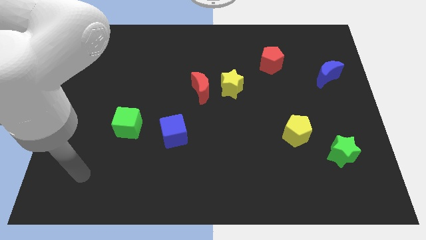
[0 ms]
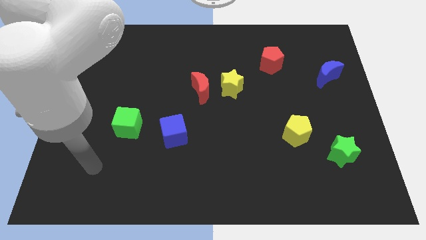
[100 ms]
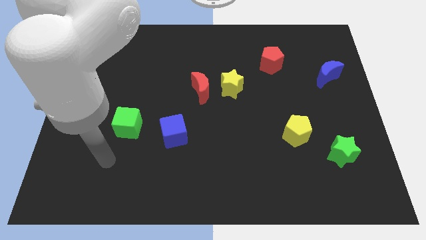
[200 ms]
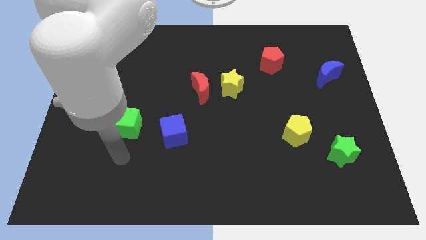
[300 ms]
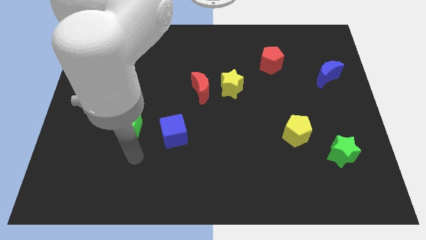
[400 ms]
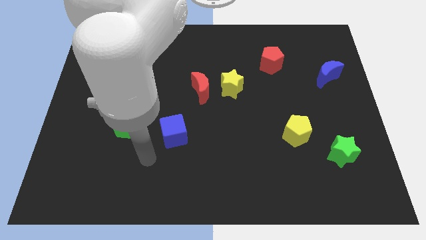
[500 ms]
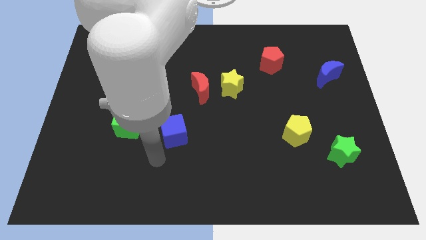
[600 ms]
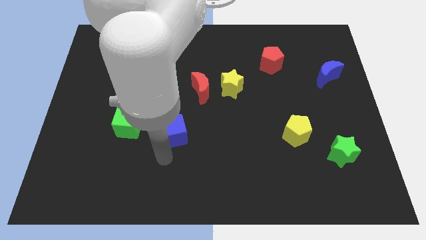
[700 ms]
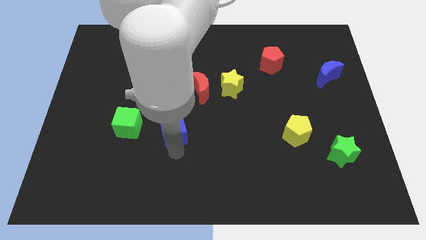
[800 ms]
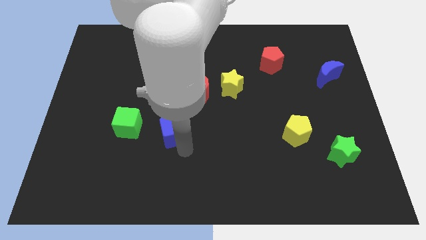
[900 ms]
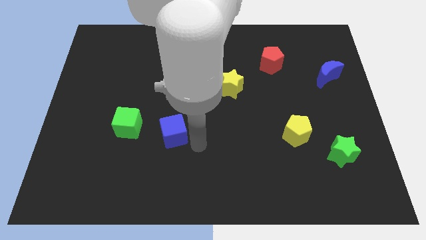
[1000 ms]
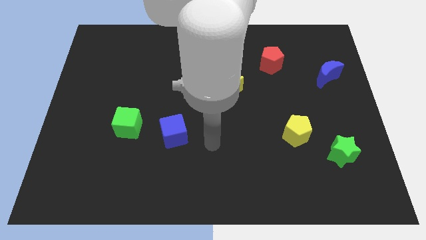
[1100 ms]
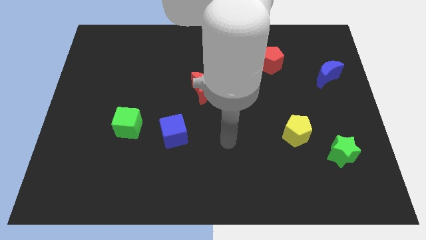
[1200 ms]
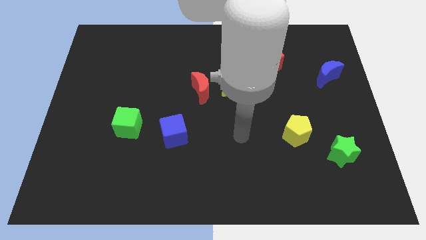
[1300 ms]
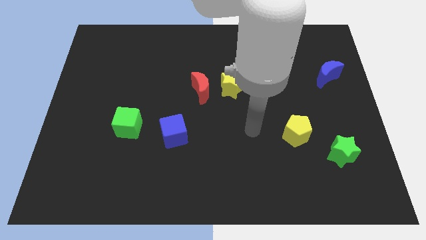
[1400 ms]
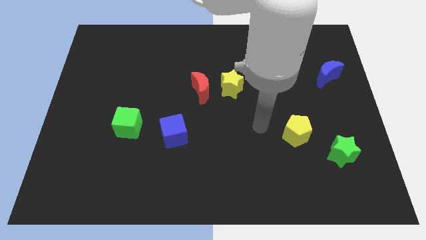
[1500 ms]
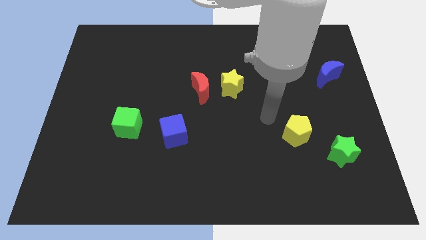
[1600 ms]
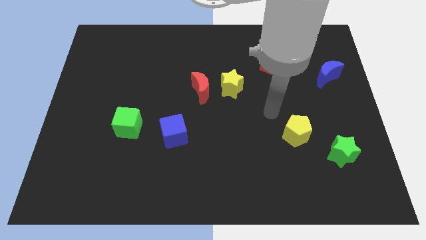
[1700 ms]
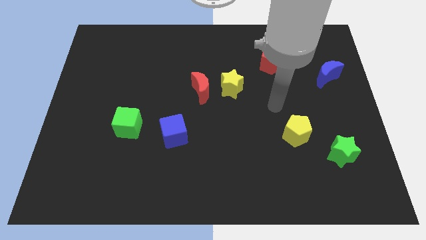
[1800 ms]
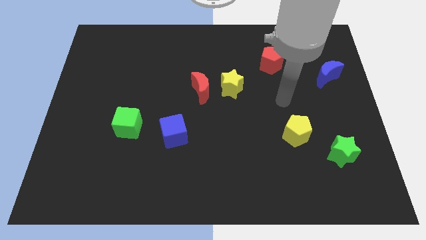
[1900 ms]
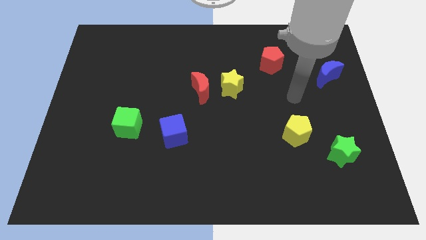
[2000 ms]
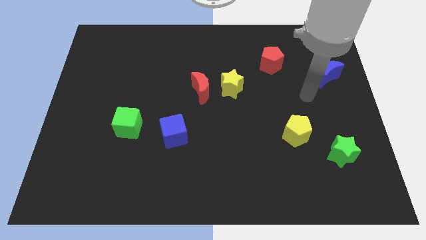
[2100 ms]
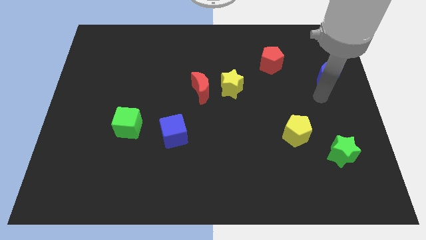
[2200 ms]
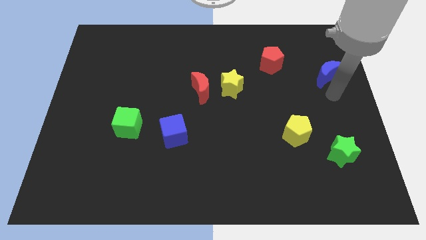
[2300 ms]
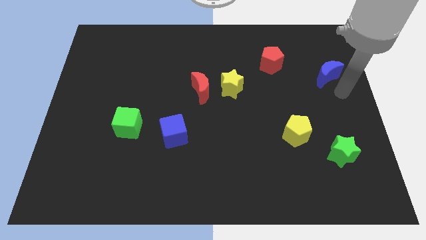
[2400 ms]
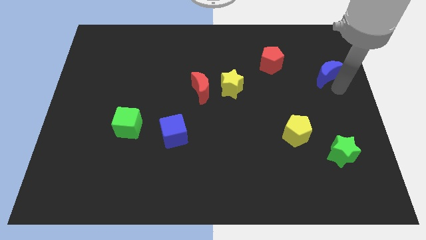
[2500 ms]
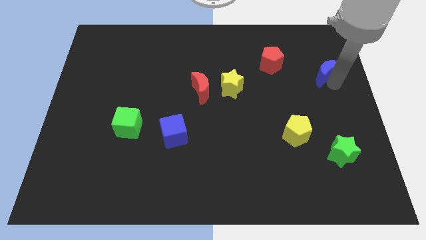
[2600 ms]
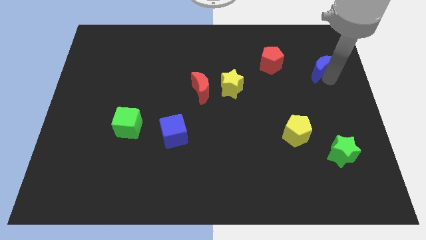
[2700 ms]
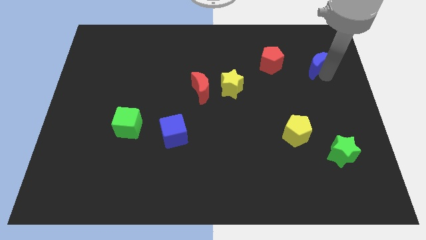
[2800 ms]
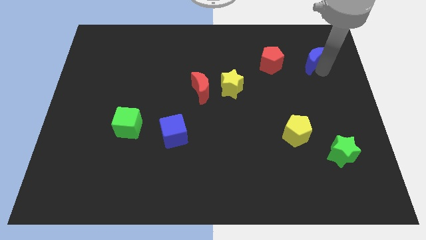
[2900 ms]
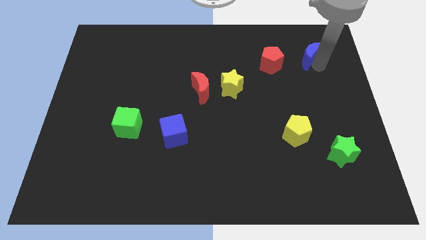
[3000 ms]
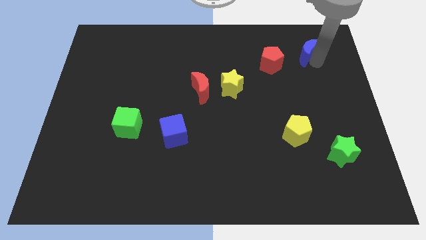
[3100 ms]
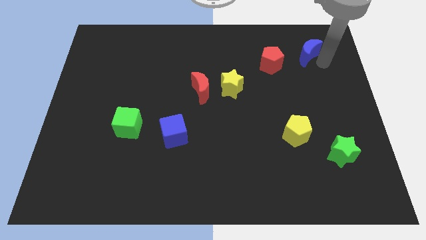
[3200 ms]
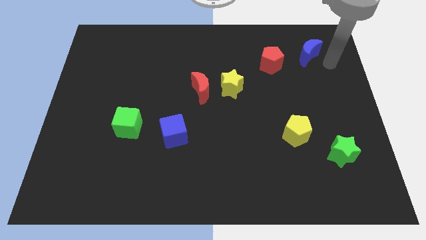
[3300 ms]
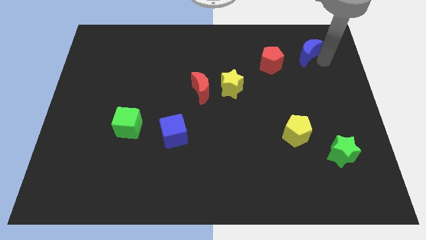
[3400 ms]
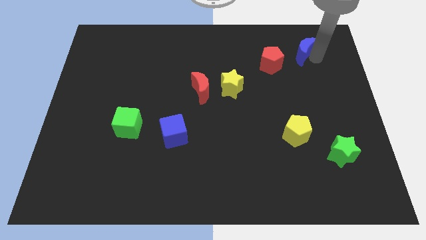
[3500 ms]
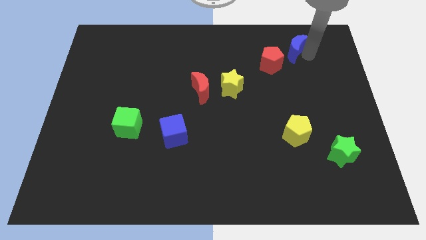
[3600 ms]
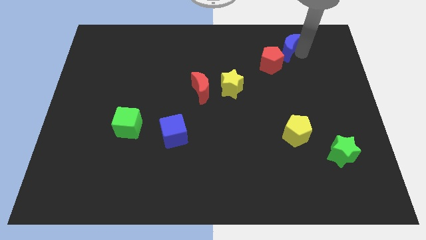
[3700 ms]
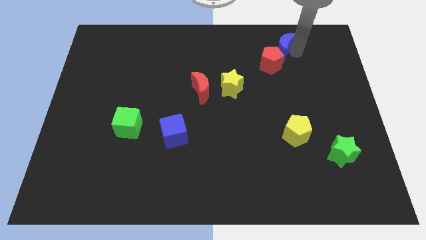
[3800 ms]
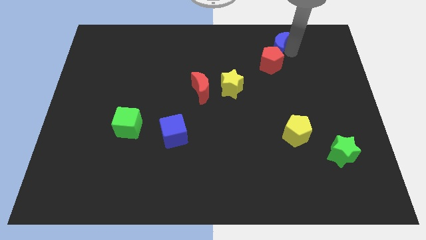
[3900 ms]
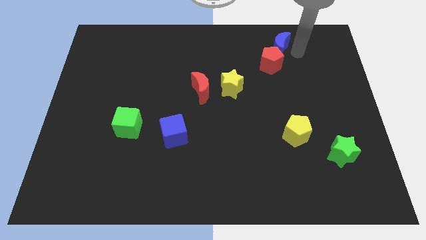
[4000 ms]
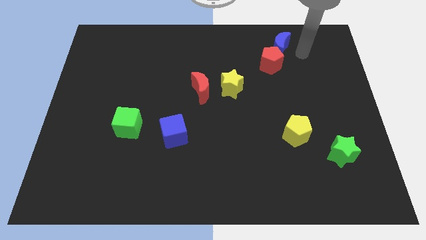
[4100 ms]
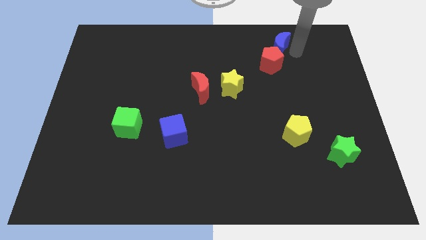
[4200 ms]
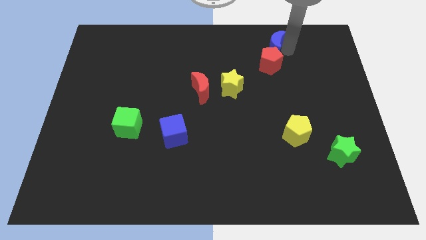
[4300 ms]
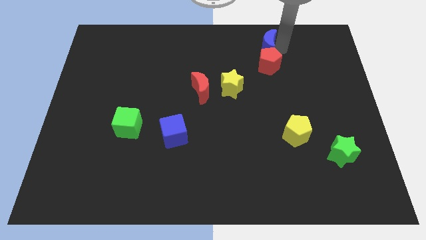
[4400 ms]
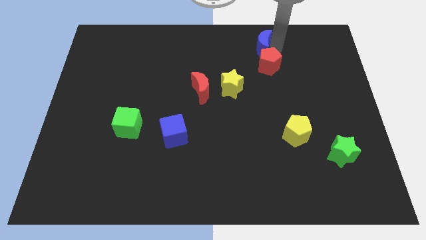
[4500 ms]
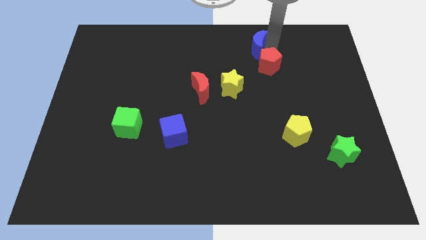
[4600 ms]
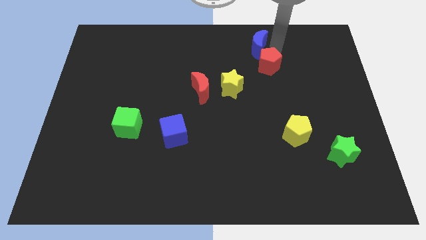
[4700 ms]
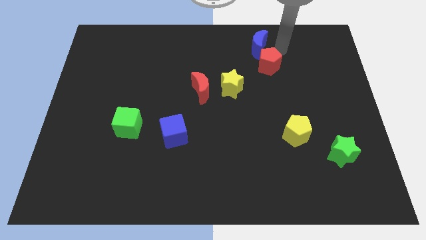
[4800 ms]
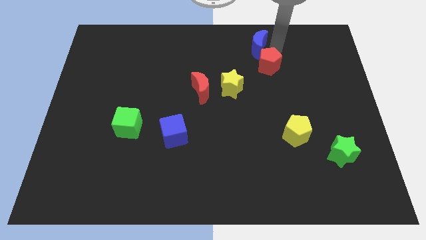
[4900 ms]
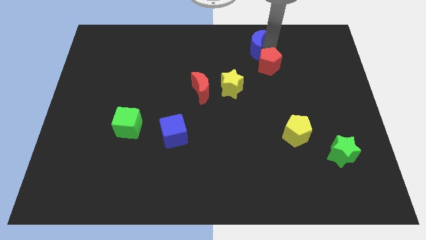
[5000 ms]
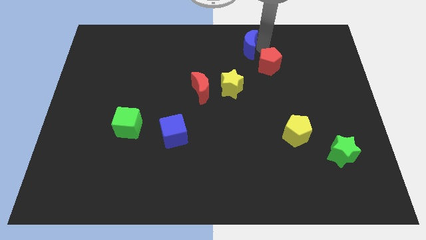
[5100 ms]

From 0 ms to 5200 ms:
put the blue moon to the top

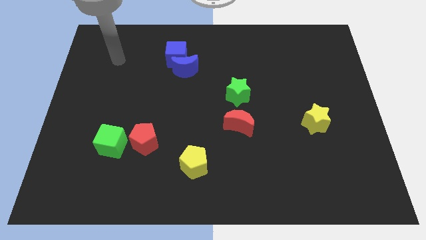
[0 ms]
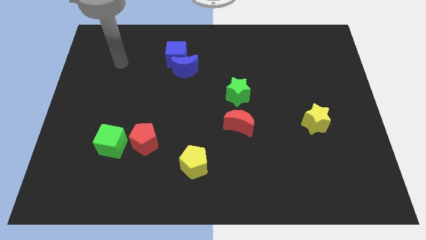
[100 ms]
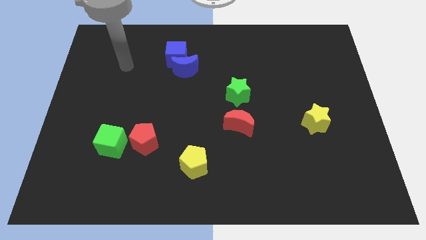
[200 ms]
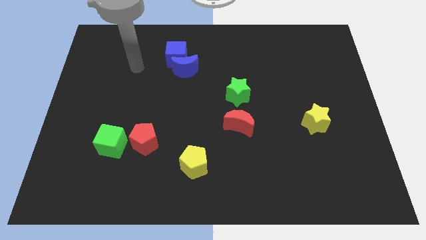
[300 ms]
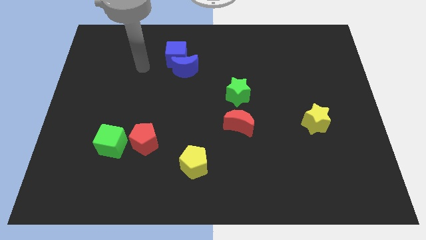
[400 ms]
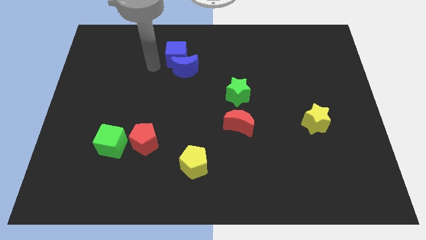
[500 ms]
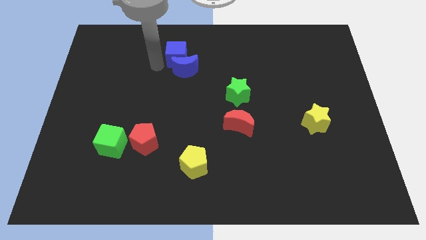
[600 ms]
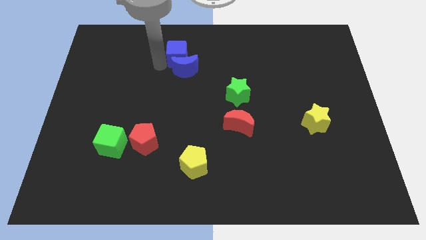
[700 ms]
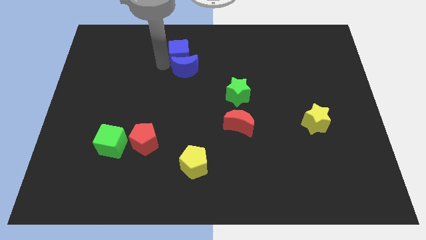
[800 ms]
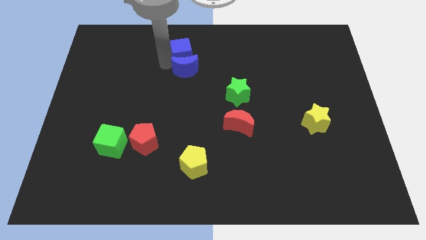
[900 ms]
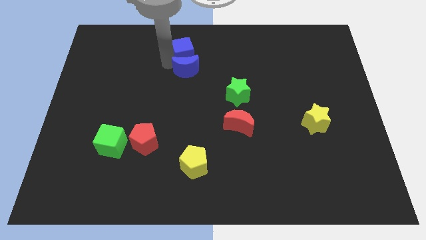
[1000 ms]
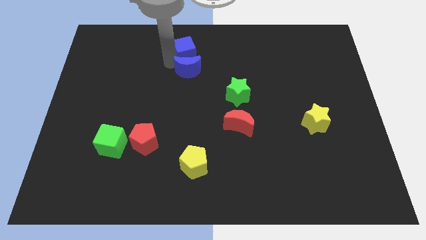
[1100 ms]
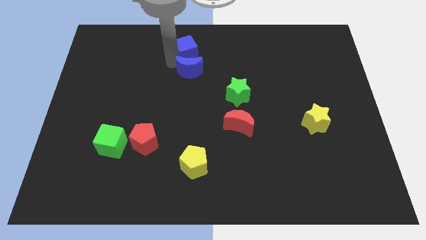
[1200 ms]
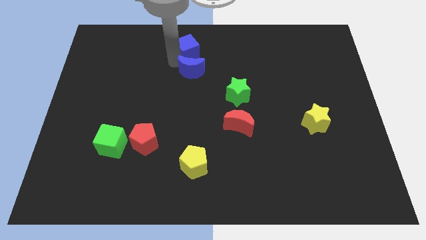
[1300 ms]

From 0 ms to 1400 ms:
push the blue cube to the top
